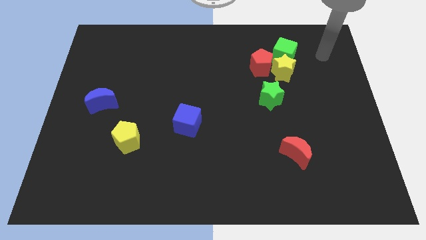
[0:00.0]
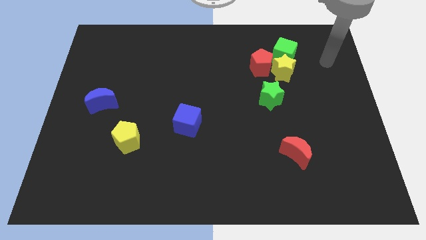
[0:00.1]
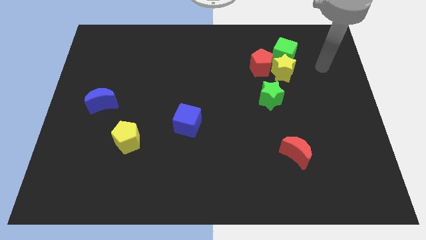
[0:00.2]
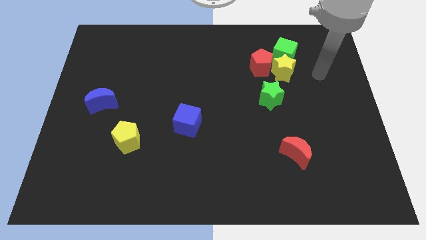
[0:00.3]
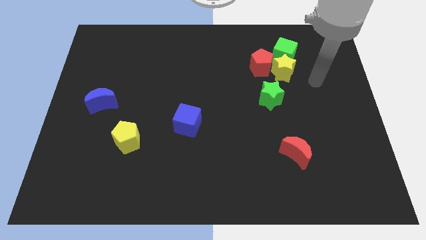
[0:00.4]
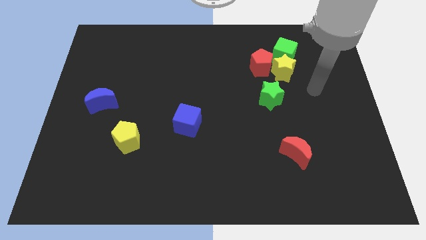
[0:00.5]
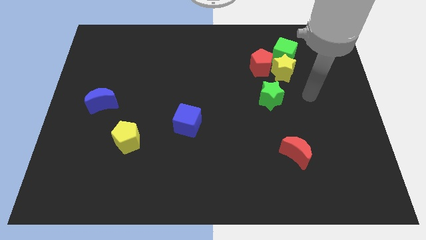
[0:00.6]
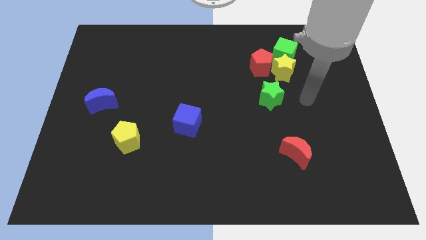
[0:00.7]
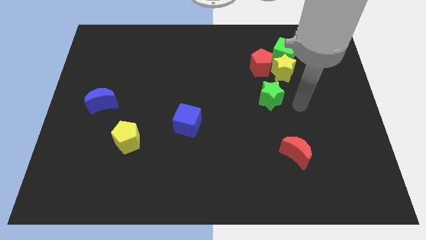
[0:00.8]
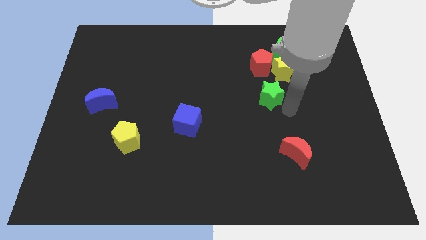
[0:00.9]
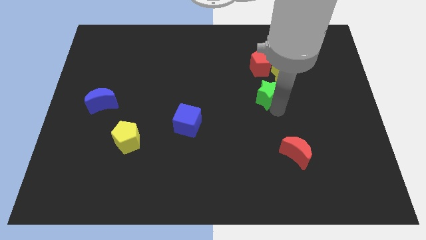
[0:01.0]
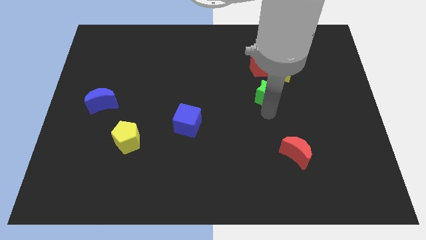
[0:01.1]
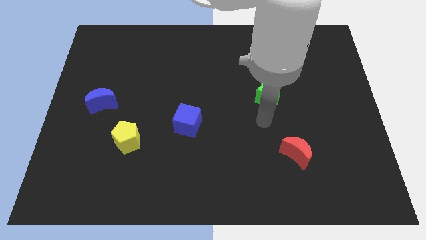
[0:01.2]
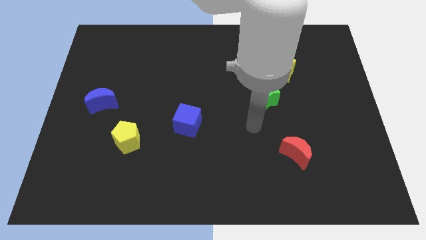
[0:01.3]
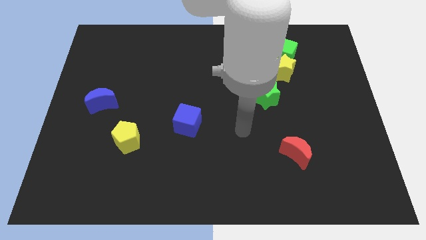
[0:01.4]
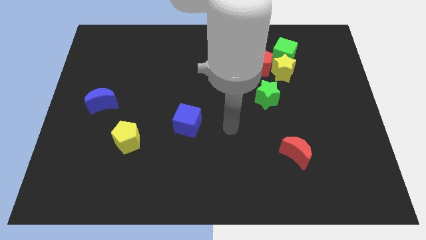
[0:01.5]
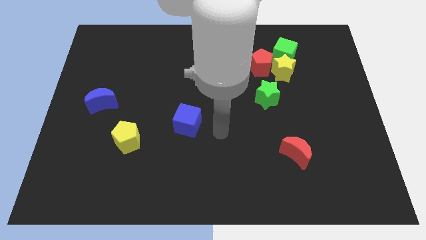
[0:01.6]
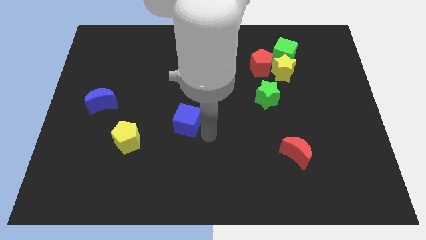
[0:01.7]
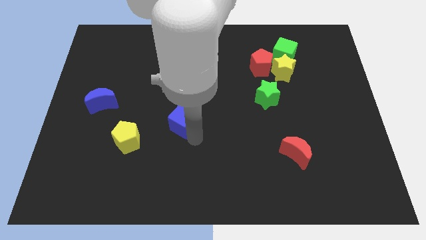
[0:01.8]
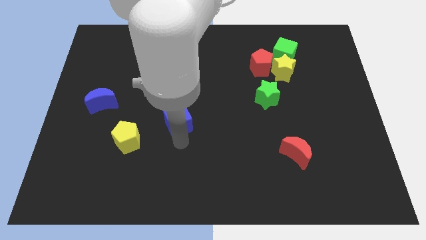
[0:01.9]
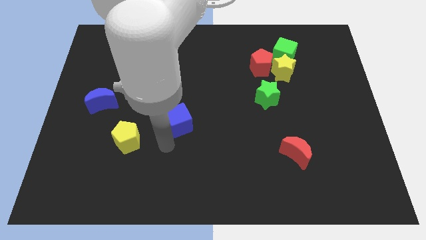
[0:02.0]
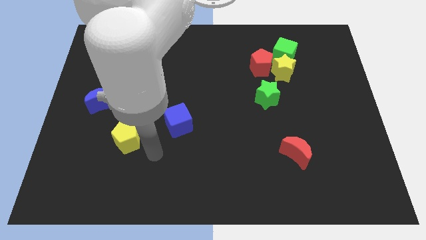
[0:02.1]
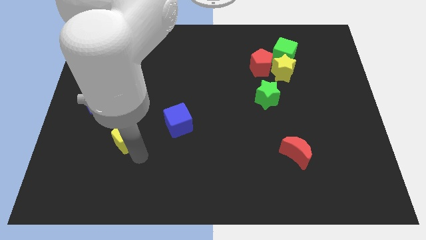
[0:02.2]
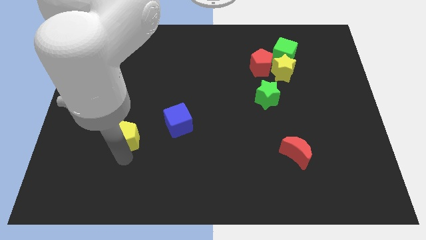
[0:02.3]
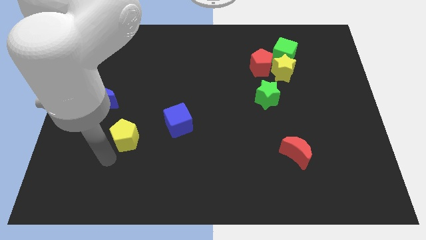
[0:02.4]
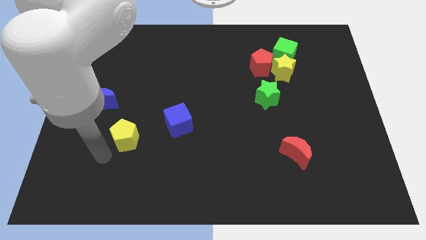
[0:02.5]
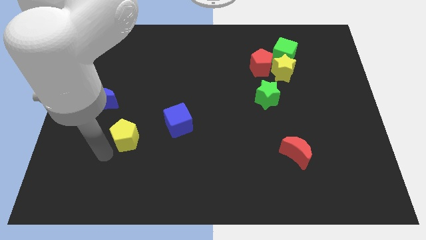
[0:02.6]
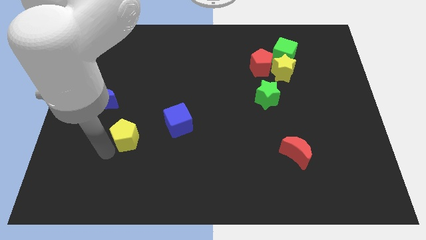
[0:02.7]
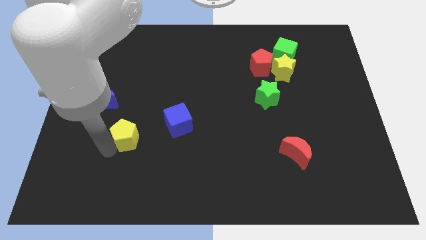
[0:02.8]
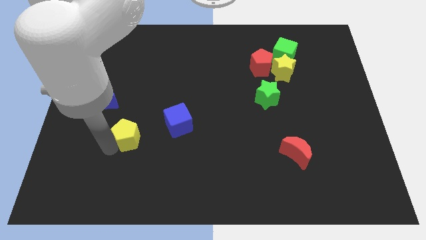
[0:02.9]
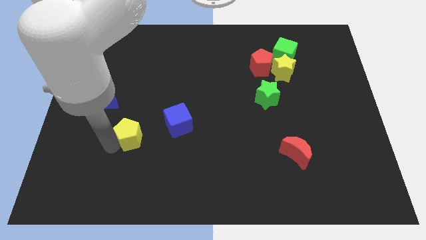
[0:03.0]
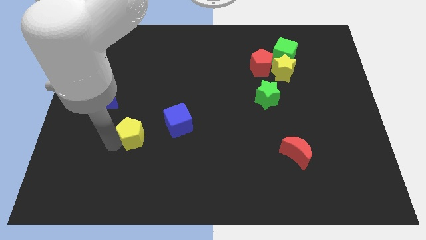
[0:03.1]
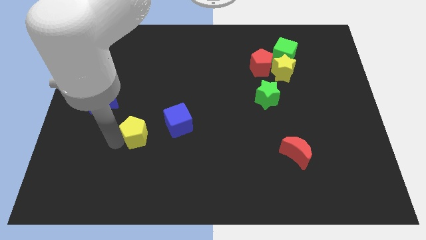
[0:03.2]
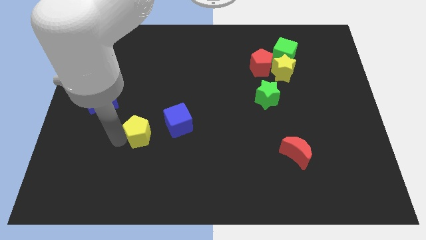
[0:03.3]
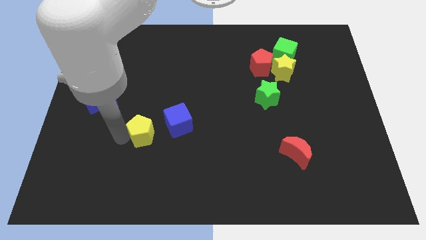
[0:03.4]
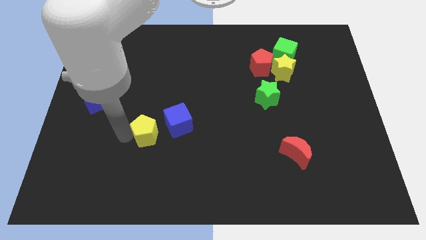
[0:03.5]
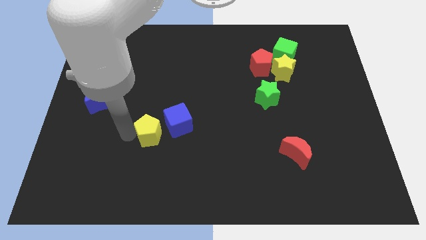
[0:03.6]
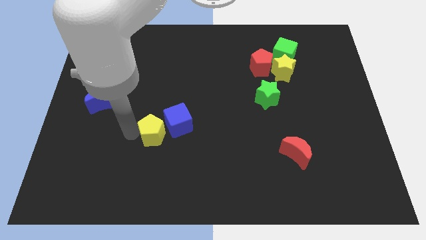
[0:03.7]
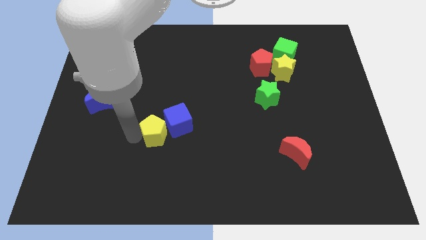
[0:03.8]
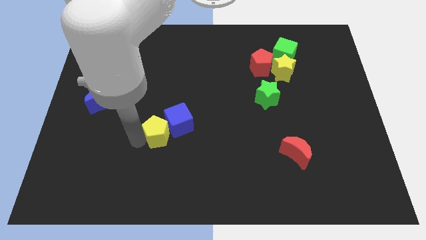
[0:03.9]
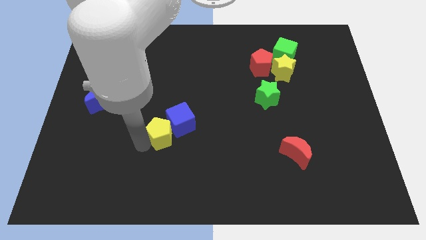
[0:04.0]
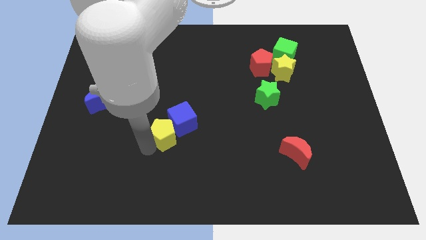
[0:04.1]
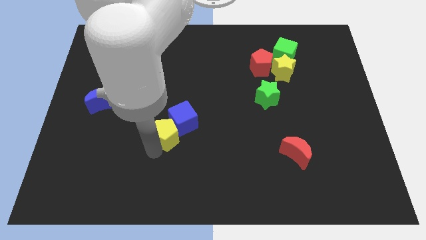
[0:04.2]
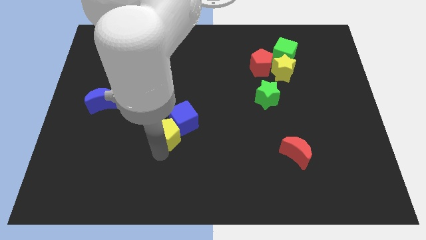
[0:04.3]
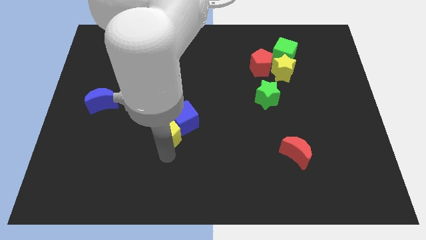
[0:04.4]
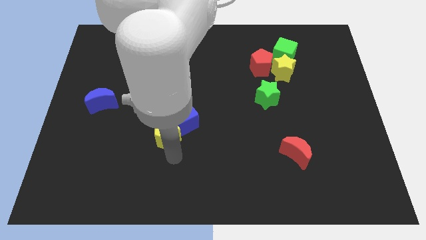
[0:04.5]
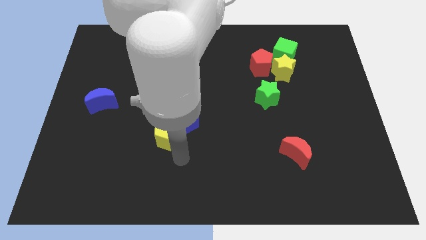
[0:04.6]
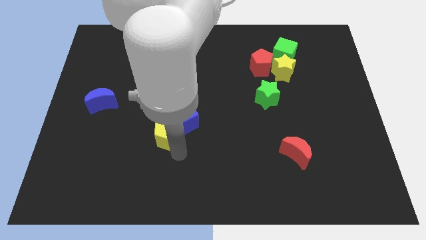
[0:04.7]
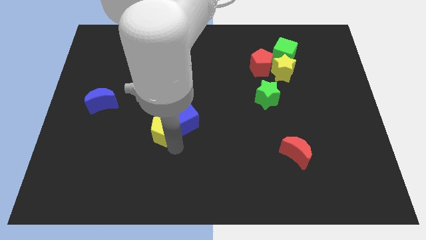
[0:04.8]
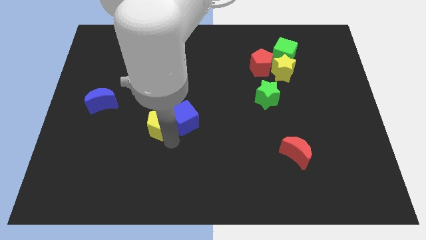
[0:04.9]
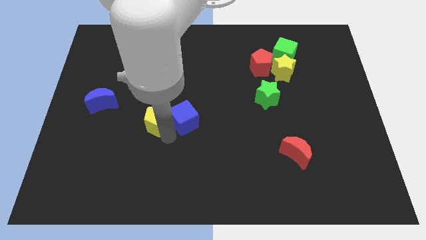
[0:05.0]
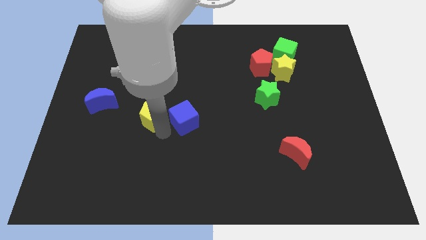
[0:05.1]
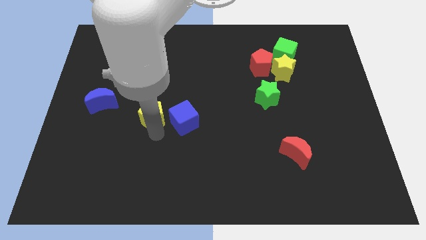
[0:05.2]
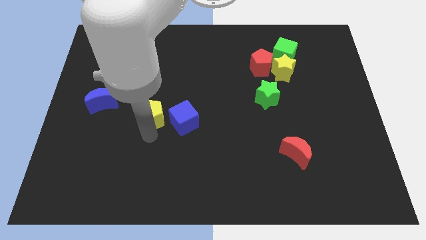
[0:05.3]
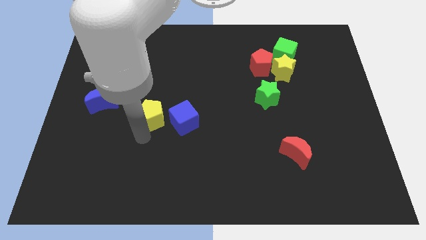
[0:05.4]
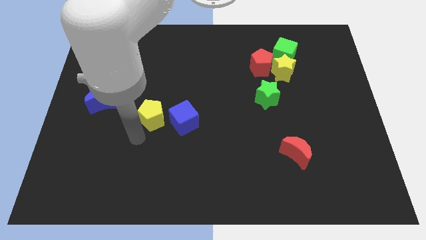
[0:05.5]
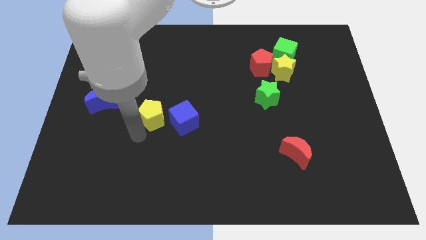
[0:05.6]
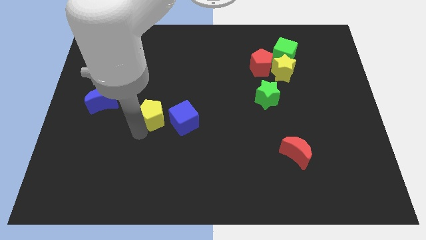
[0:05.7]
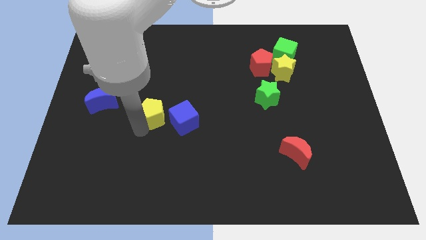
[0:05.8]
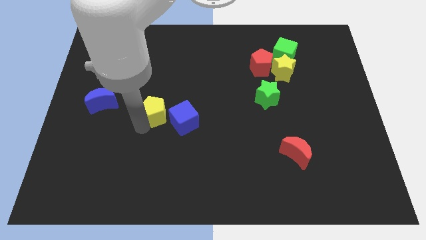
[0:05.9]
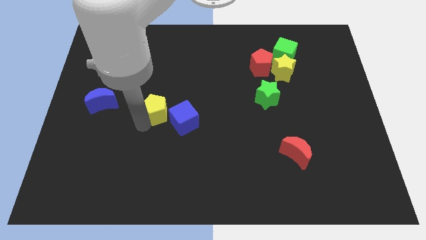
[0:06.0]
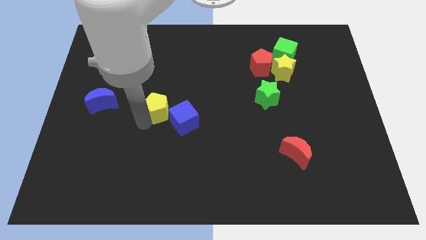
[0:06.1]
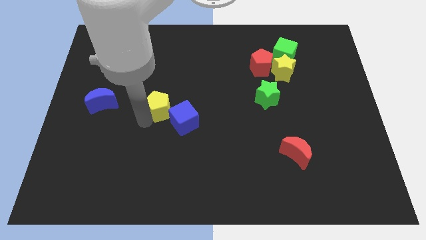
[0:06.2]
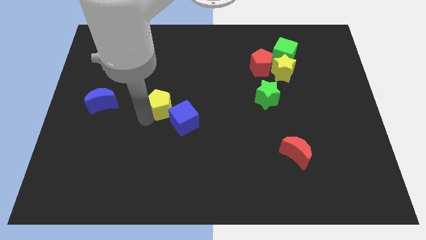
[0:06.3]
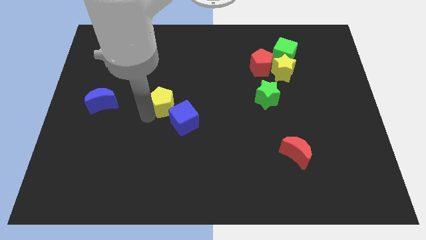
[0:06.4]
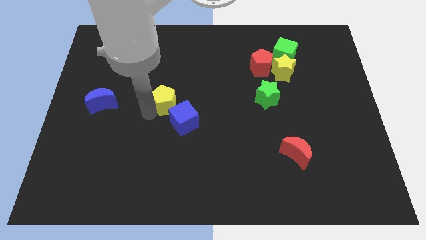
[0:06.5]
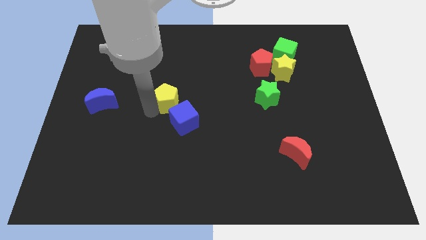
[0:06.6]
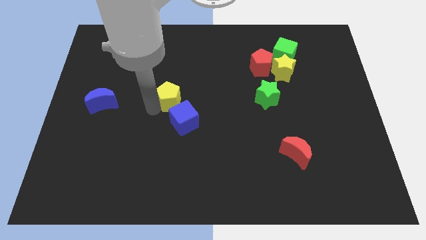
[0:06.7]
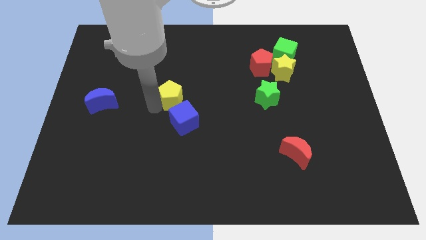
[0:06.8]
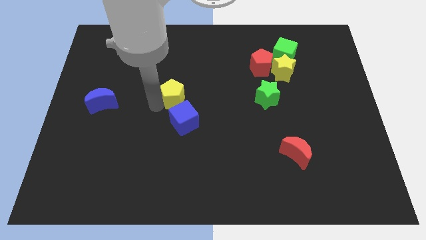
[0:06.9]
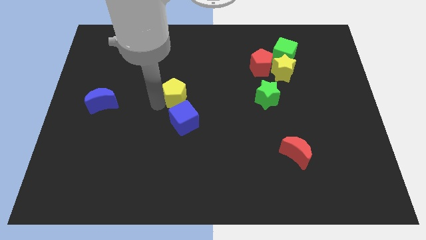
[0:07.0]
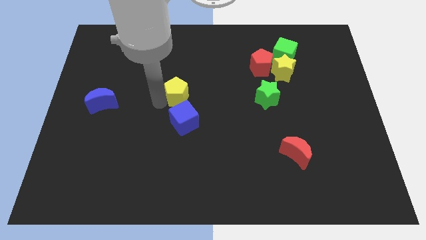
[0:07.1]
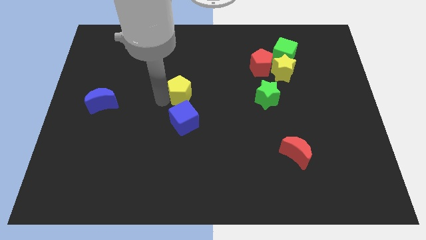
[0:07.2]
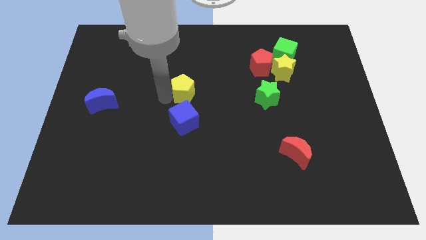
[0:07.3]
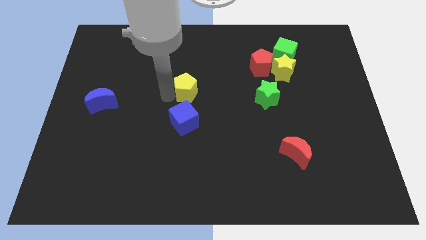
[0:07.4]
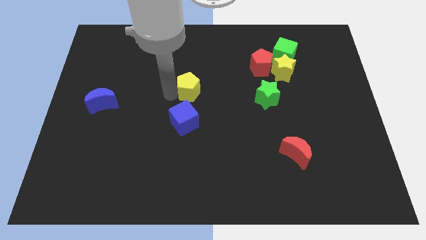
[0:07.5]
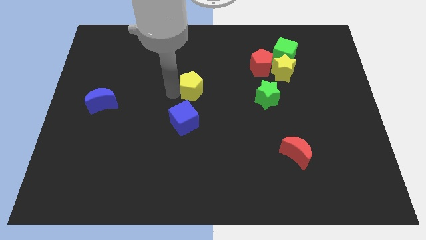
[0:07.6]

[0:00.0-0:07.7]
slide the yellow pentagon upwards and then to the right
